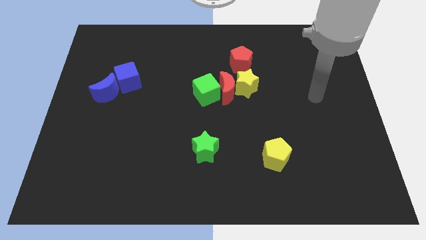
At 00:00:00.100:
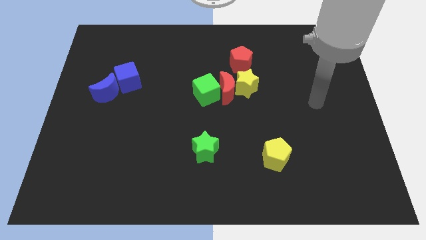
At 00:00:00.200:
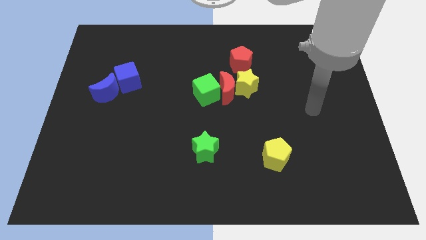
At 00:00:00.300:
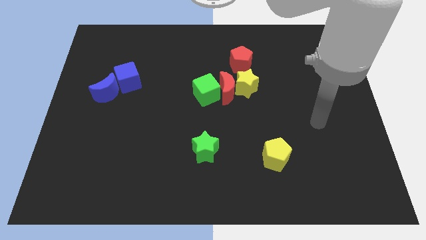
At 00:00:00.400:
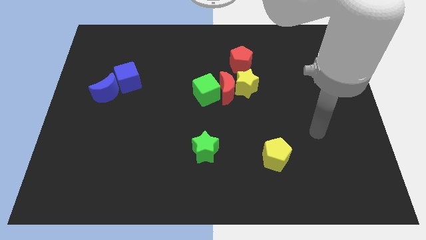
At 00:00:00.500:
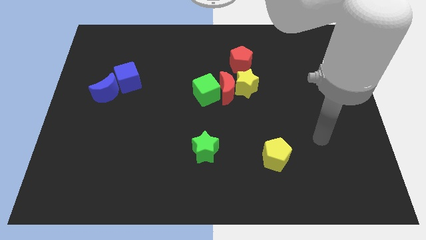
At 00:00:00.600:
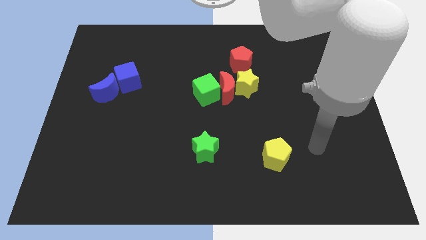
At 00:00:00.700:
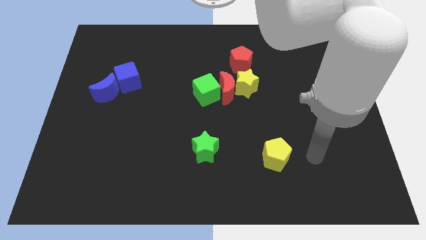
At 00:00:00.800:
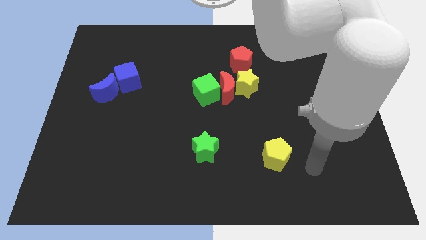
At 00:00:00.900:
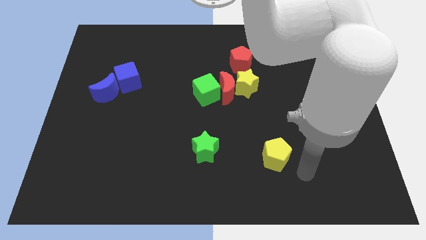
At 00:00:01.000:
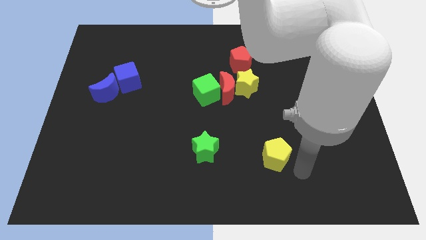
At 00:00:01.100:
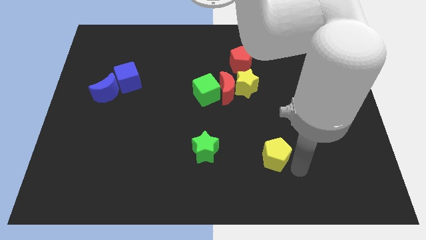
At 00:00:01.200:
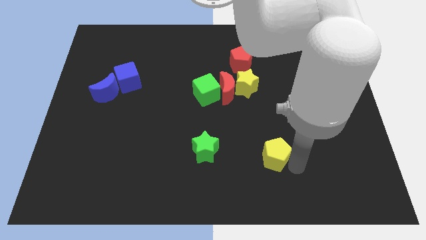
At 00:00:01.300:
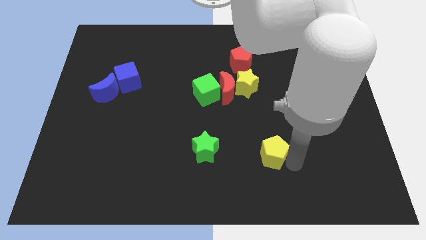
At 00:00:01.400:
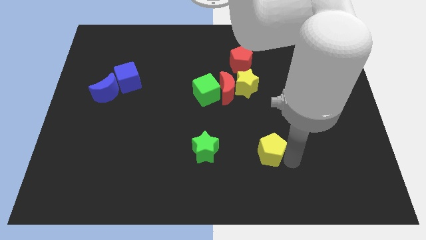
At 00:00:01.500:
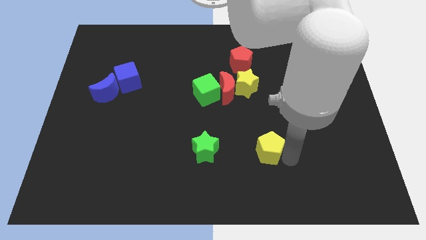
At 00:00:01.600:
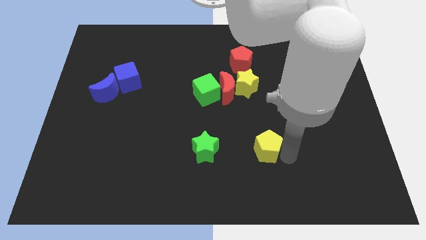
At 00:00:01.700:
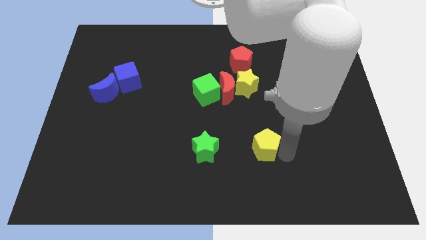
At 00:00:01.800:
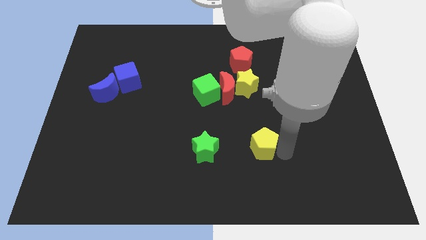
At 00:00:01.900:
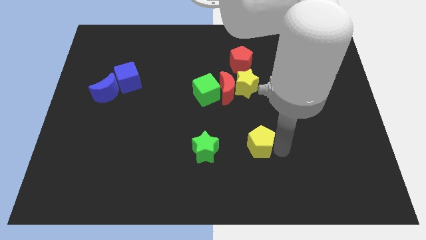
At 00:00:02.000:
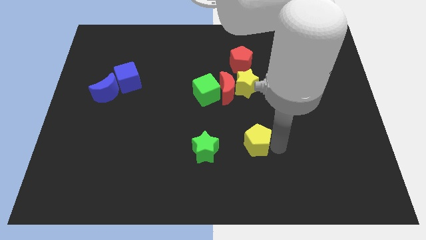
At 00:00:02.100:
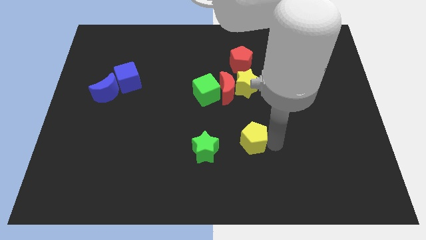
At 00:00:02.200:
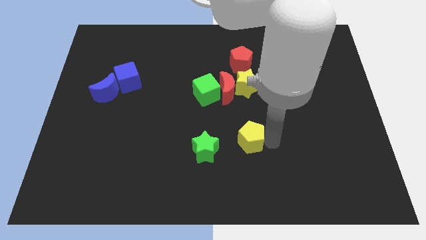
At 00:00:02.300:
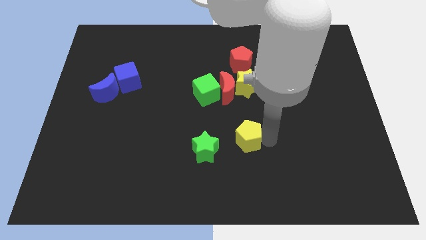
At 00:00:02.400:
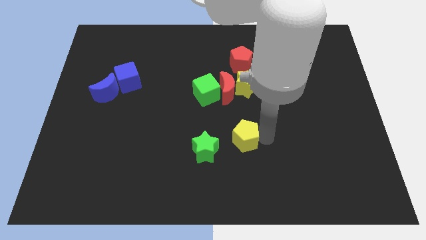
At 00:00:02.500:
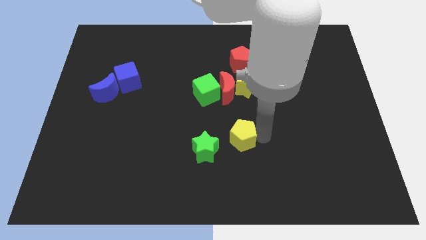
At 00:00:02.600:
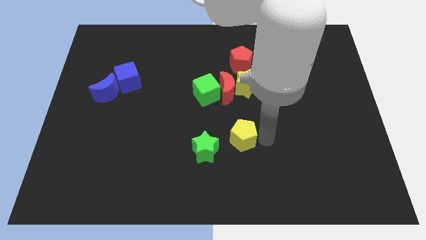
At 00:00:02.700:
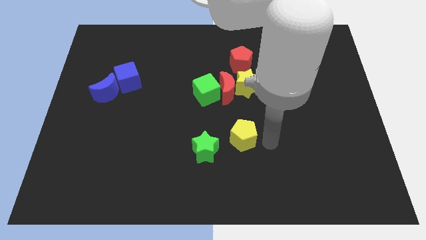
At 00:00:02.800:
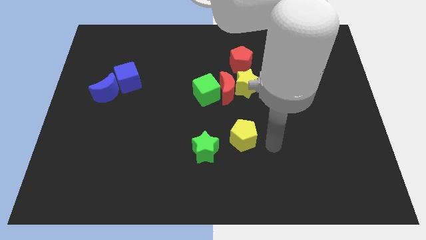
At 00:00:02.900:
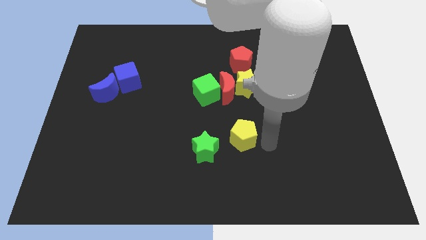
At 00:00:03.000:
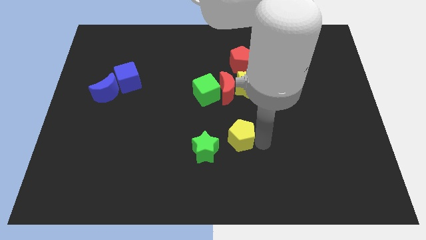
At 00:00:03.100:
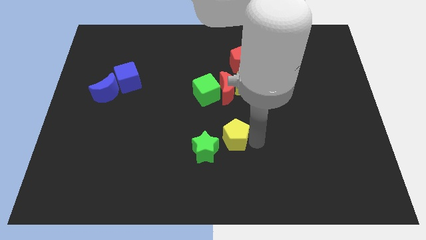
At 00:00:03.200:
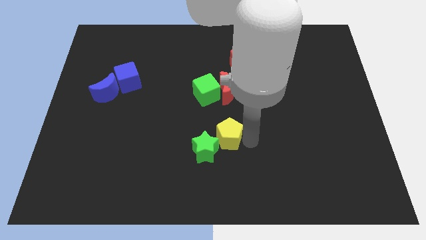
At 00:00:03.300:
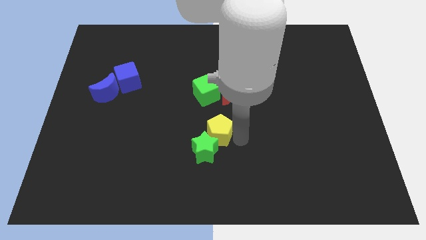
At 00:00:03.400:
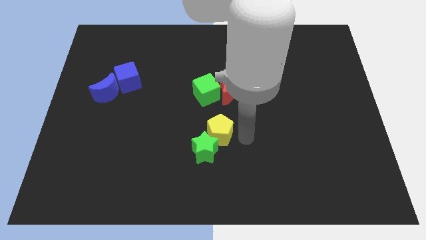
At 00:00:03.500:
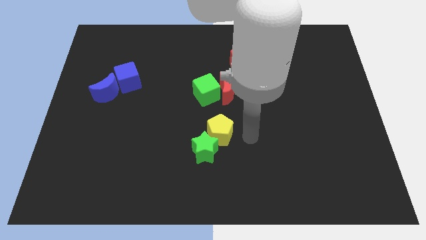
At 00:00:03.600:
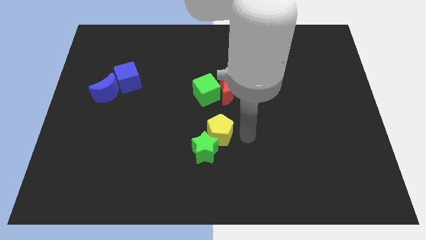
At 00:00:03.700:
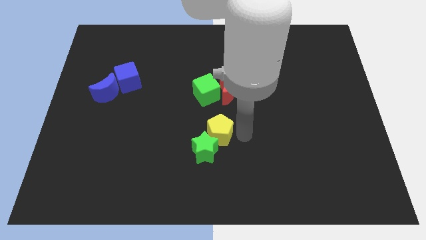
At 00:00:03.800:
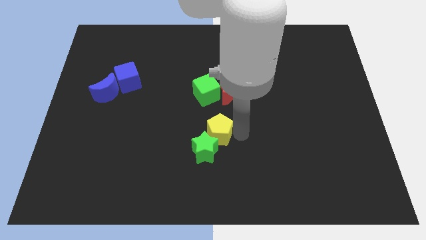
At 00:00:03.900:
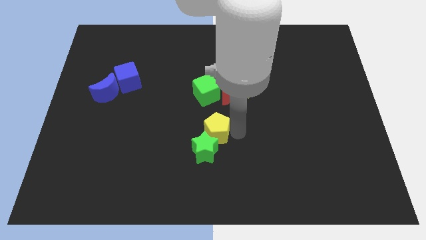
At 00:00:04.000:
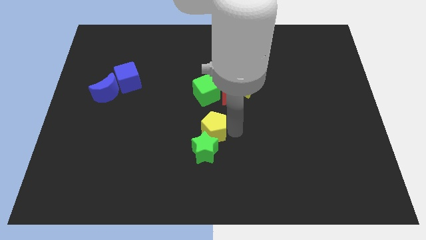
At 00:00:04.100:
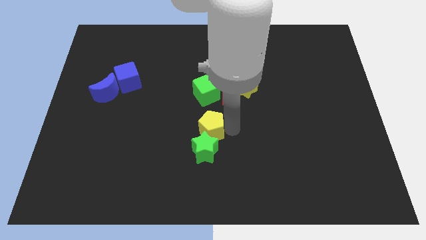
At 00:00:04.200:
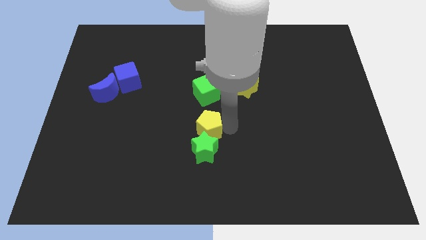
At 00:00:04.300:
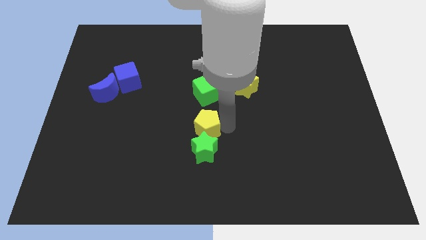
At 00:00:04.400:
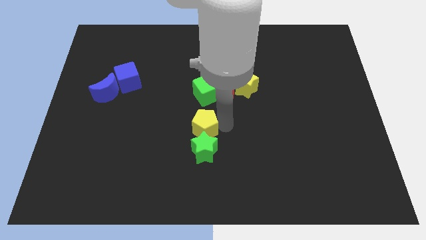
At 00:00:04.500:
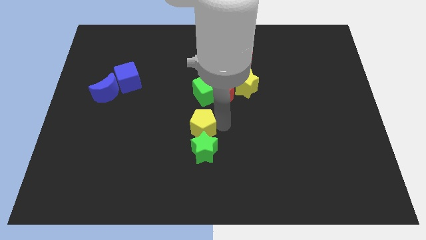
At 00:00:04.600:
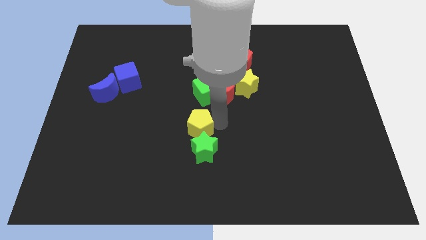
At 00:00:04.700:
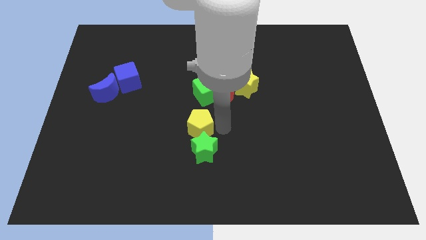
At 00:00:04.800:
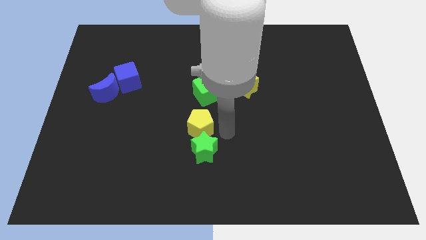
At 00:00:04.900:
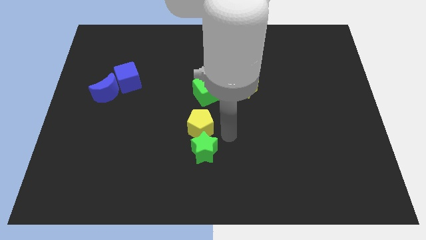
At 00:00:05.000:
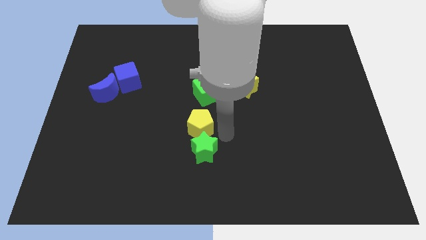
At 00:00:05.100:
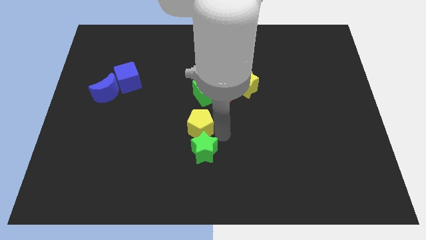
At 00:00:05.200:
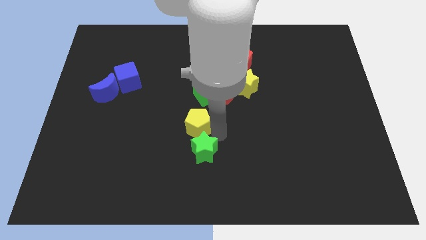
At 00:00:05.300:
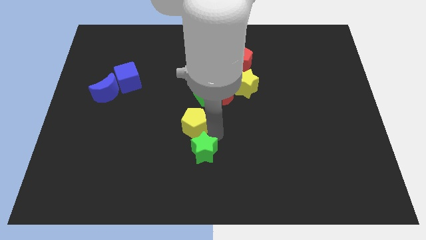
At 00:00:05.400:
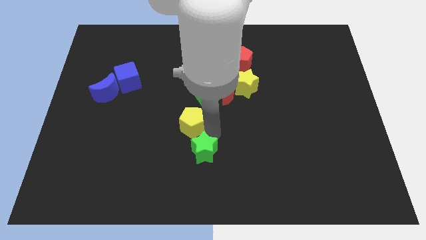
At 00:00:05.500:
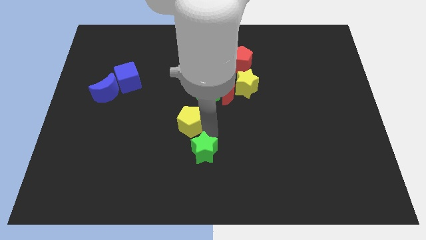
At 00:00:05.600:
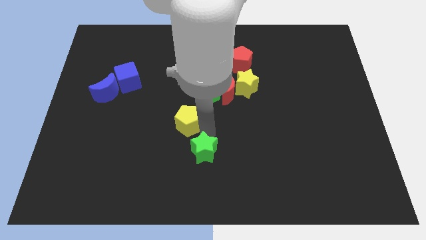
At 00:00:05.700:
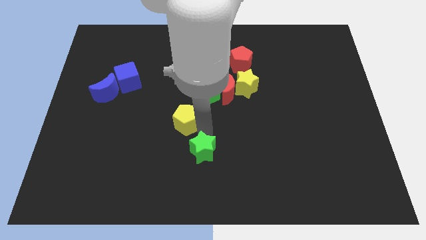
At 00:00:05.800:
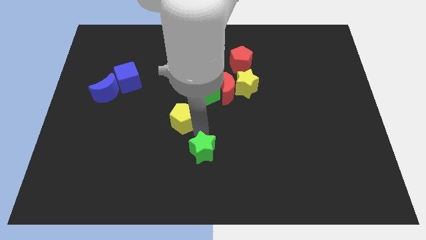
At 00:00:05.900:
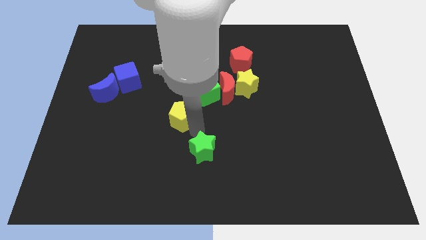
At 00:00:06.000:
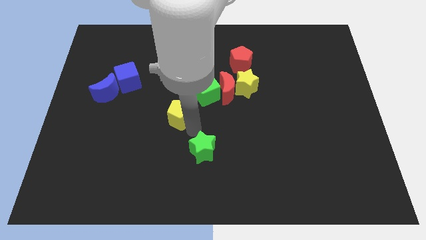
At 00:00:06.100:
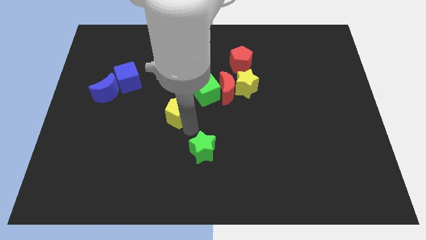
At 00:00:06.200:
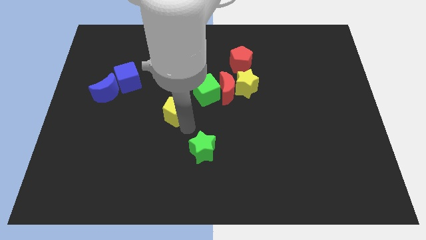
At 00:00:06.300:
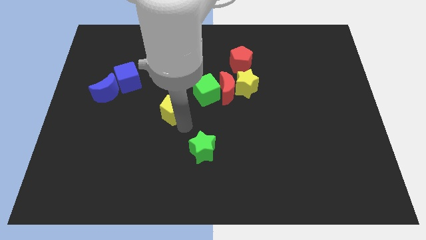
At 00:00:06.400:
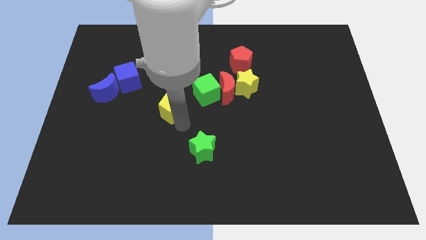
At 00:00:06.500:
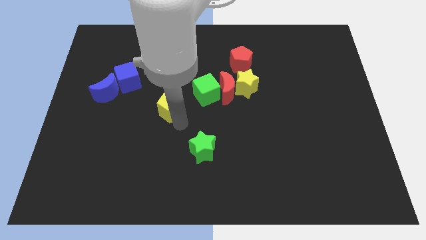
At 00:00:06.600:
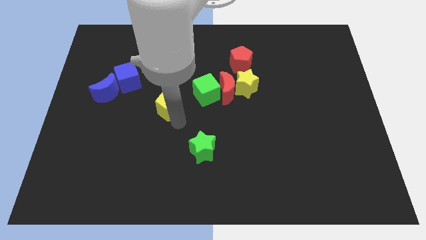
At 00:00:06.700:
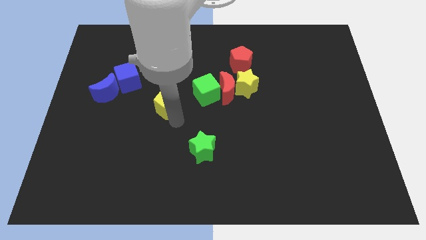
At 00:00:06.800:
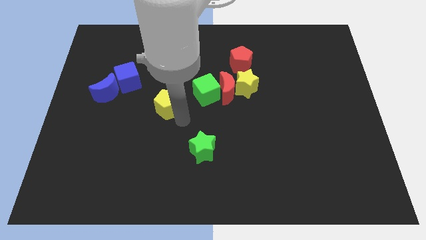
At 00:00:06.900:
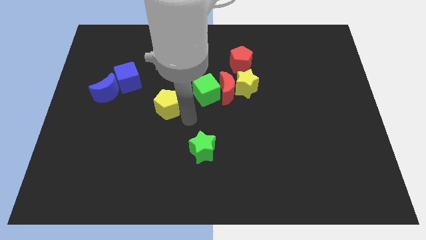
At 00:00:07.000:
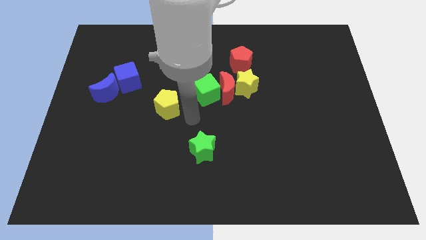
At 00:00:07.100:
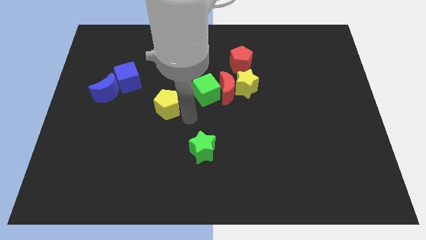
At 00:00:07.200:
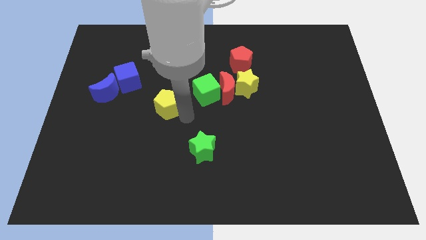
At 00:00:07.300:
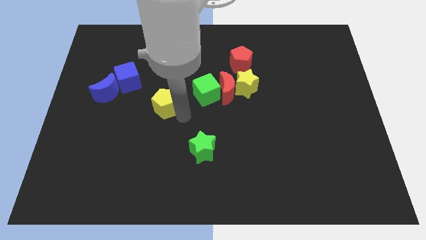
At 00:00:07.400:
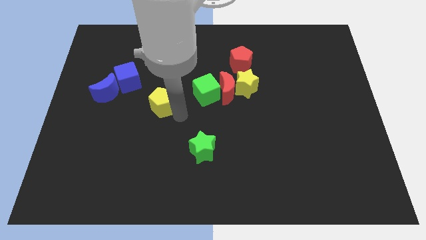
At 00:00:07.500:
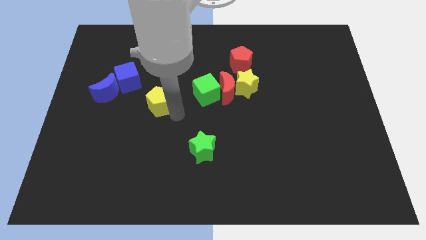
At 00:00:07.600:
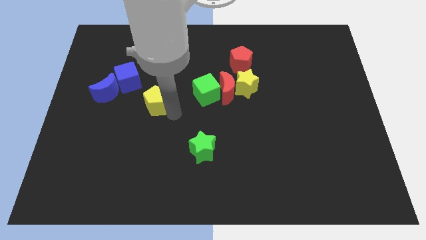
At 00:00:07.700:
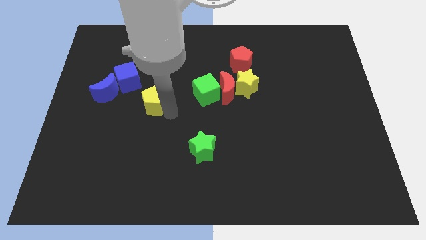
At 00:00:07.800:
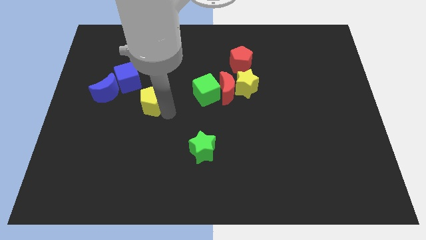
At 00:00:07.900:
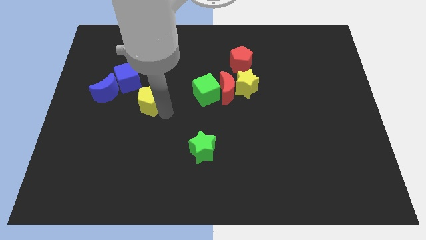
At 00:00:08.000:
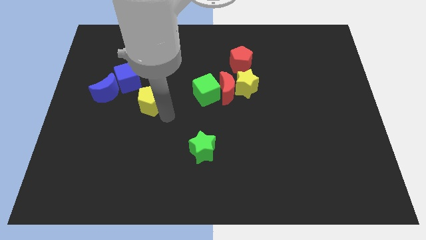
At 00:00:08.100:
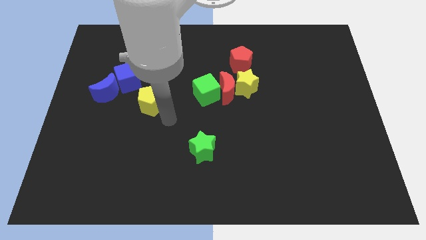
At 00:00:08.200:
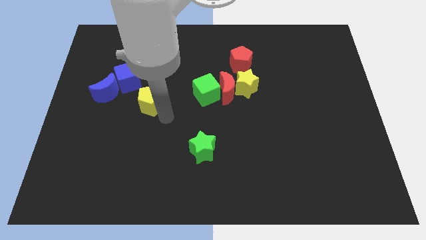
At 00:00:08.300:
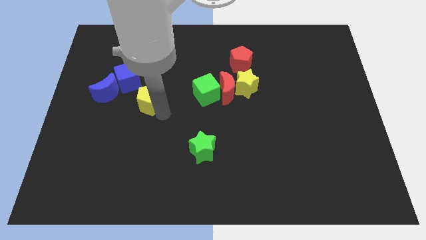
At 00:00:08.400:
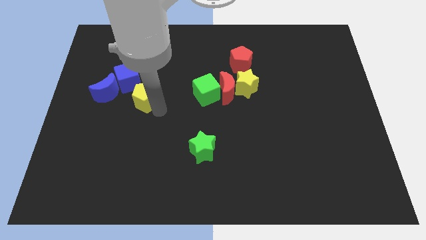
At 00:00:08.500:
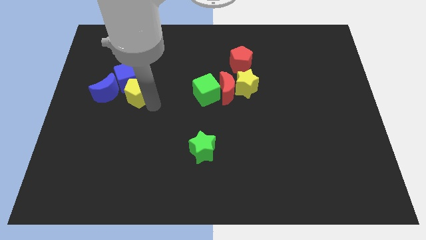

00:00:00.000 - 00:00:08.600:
move the yellow pentagon to the blue cube
